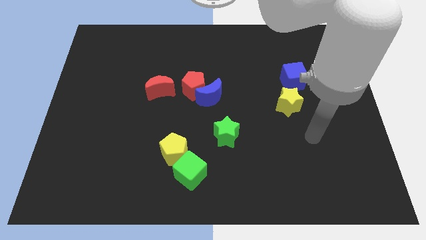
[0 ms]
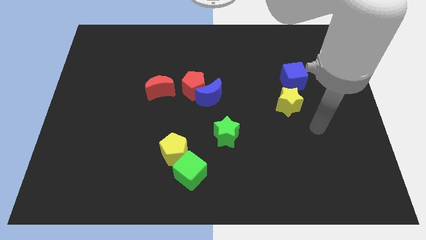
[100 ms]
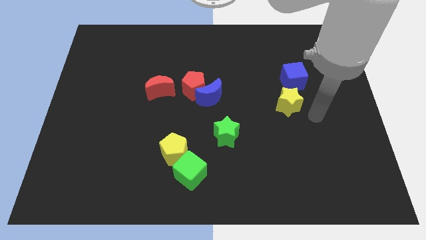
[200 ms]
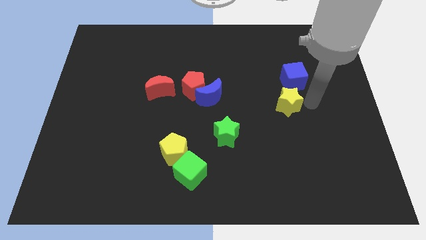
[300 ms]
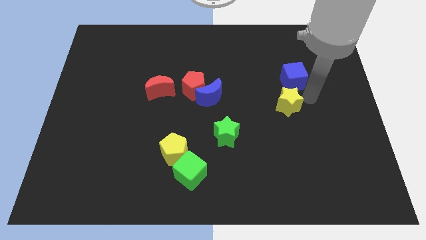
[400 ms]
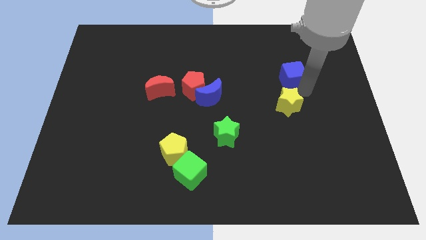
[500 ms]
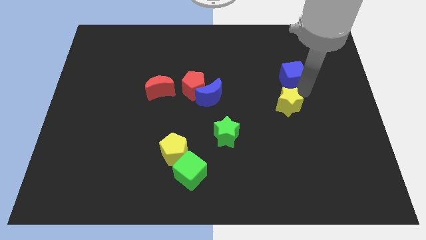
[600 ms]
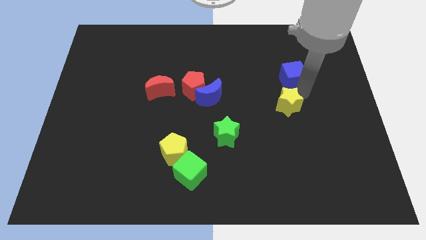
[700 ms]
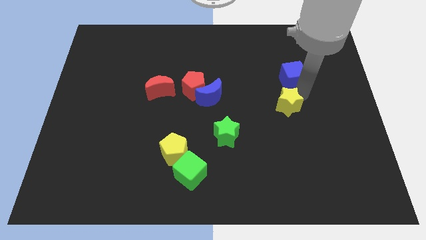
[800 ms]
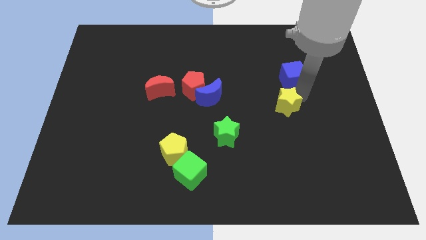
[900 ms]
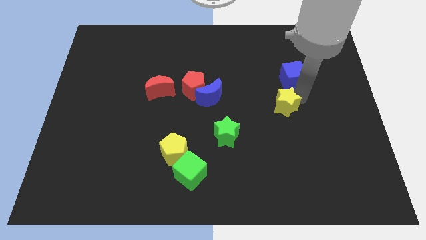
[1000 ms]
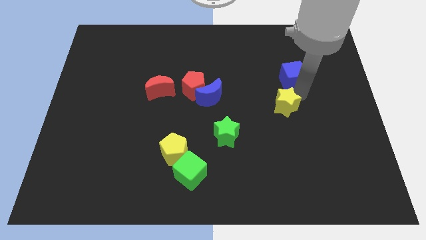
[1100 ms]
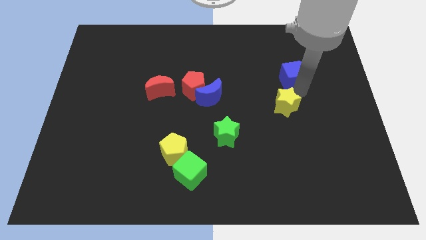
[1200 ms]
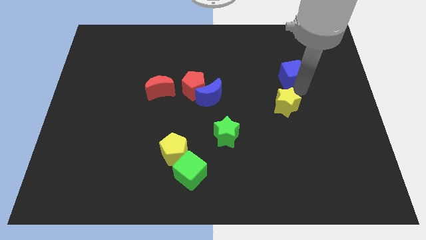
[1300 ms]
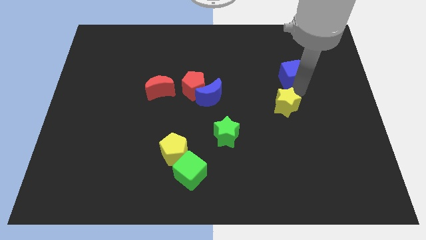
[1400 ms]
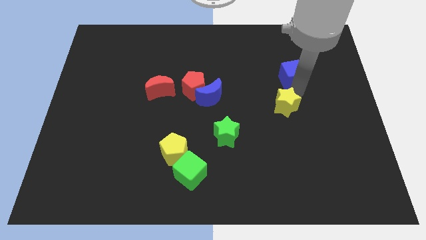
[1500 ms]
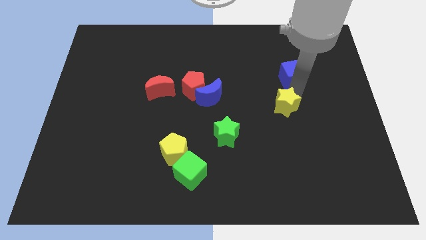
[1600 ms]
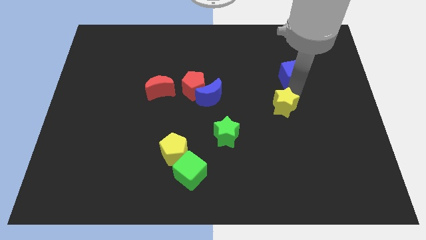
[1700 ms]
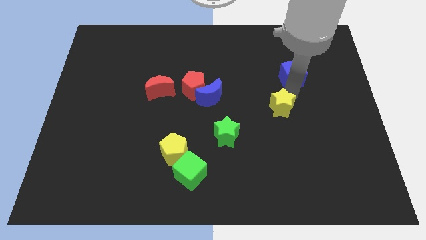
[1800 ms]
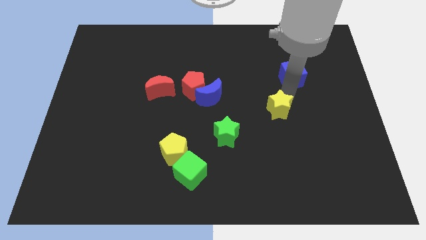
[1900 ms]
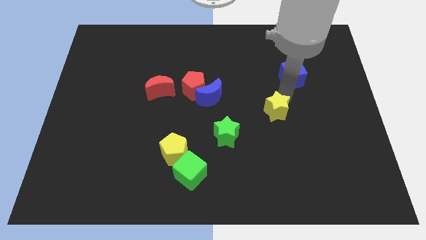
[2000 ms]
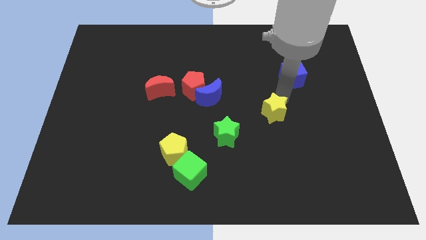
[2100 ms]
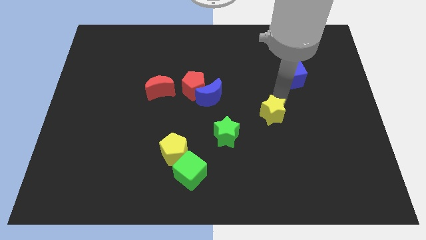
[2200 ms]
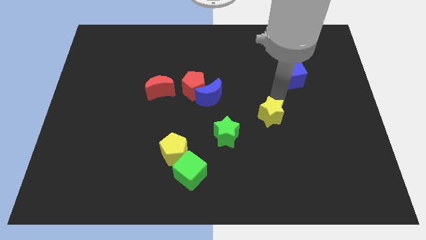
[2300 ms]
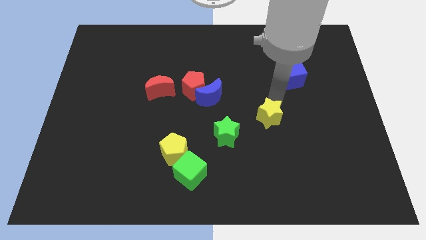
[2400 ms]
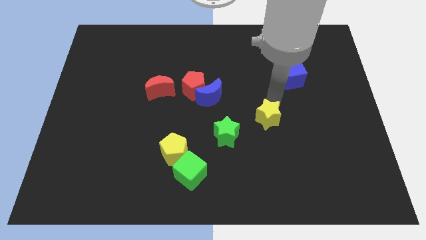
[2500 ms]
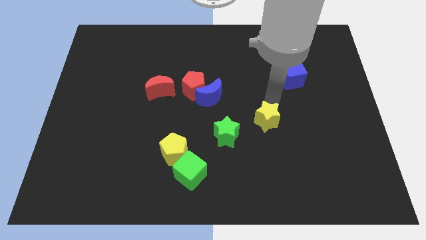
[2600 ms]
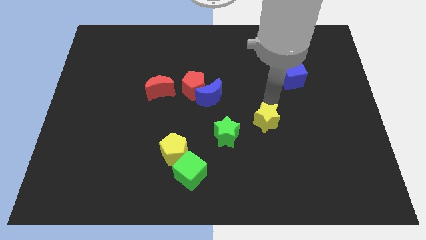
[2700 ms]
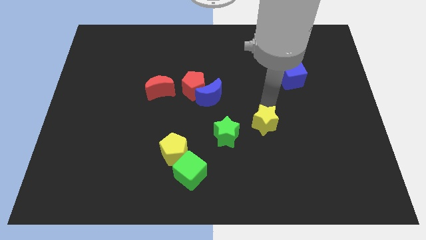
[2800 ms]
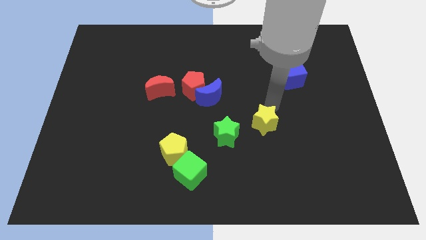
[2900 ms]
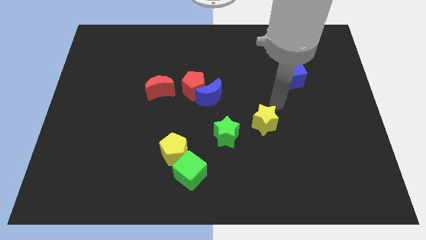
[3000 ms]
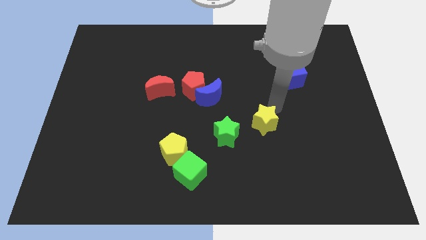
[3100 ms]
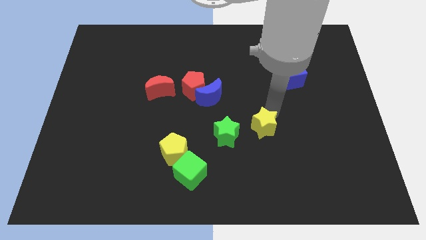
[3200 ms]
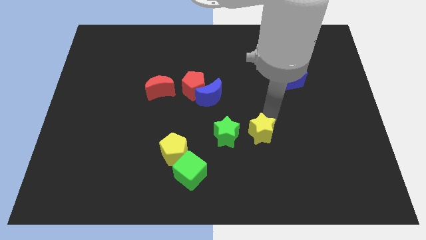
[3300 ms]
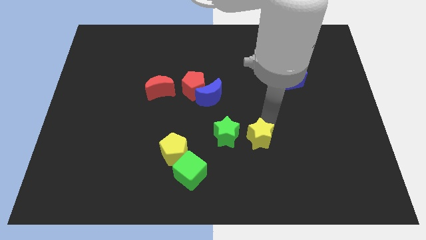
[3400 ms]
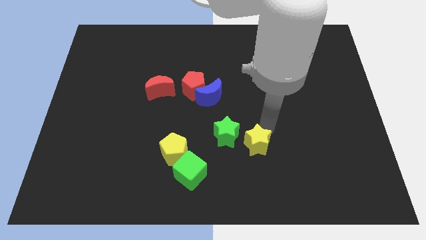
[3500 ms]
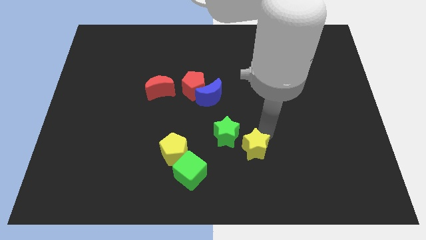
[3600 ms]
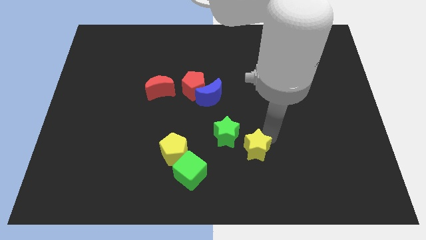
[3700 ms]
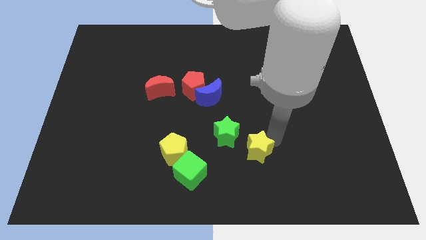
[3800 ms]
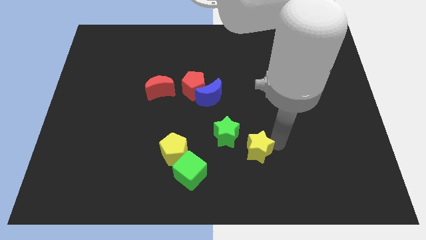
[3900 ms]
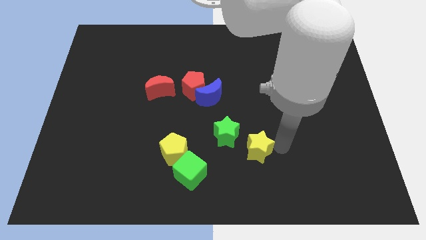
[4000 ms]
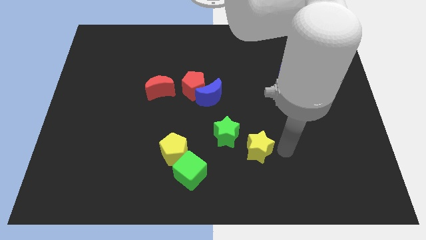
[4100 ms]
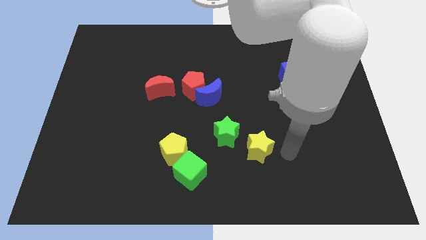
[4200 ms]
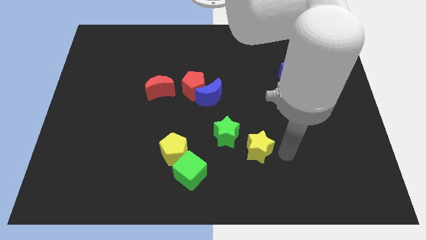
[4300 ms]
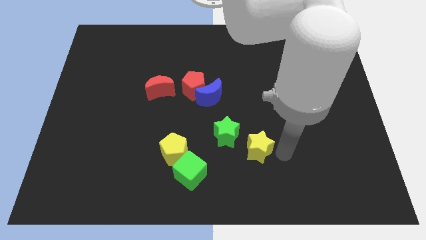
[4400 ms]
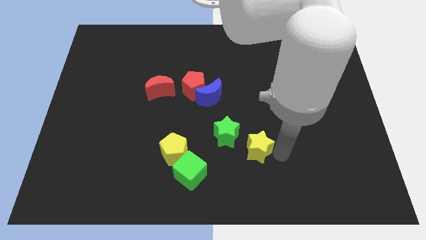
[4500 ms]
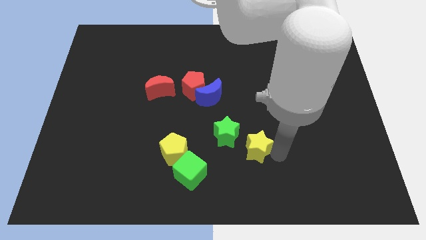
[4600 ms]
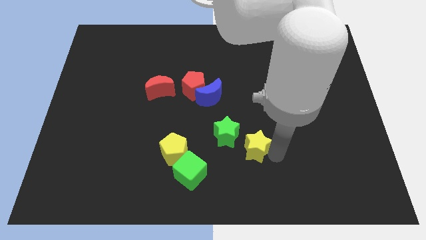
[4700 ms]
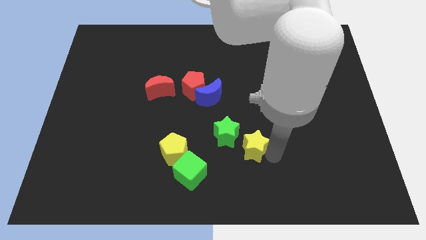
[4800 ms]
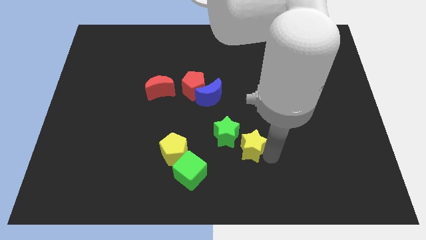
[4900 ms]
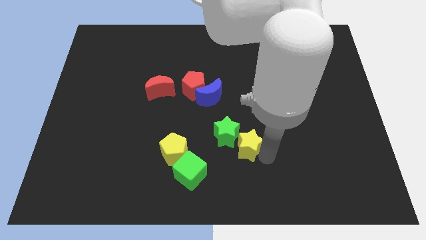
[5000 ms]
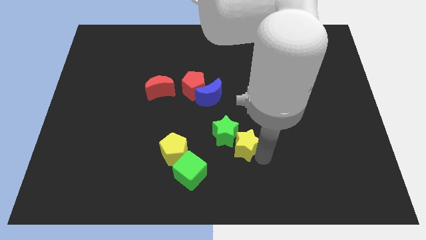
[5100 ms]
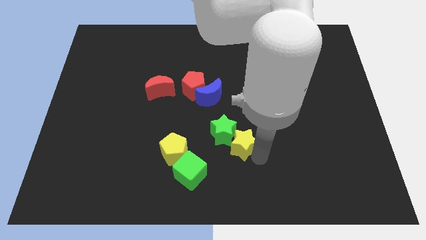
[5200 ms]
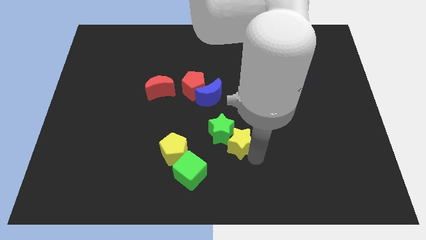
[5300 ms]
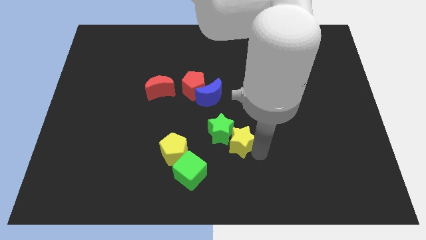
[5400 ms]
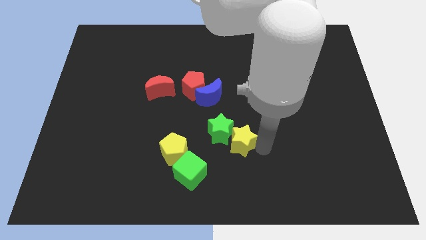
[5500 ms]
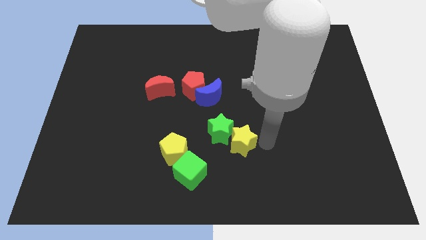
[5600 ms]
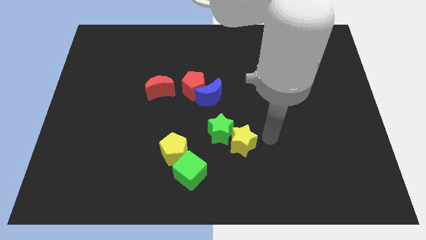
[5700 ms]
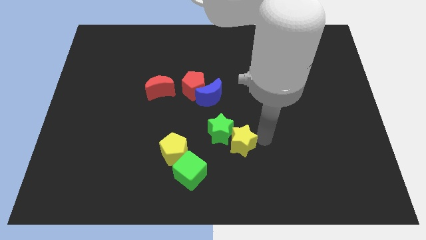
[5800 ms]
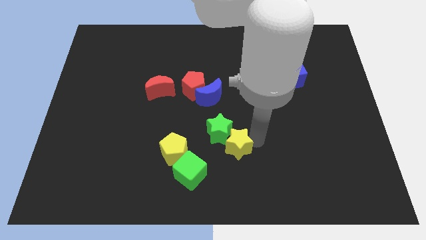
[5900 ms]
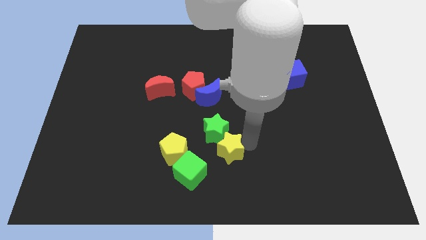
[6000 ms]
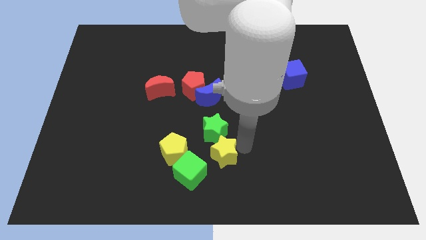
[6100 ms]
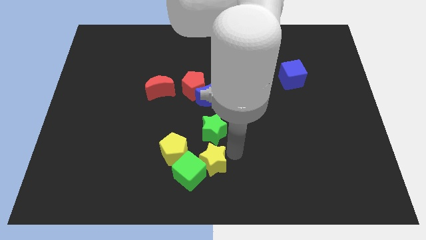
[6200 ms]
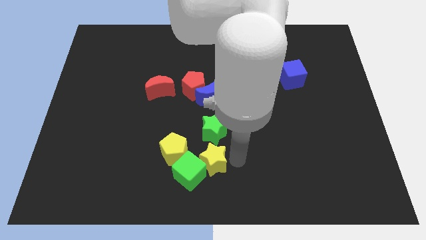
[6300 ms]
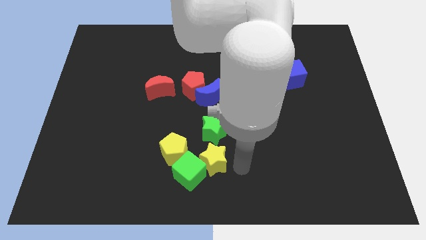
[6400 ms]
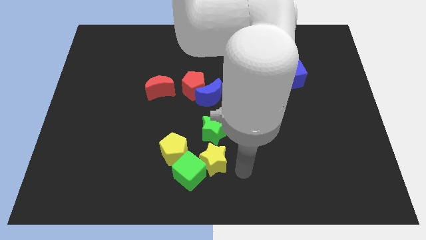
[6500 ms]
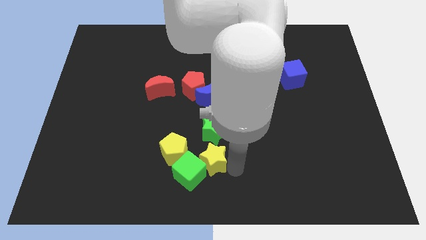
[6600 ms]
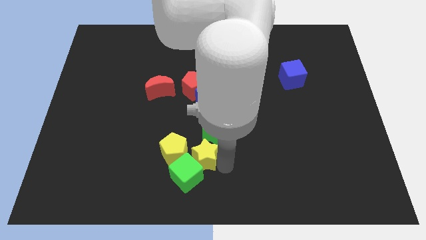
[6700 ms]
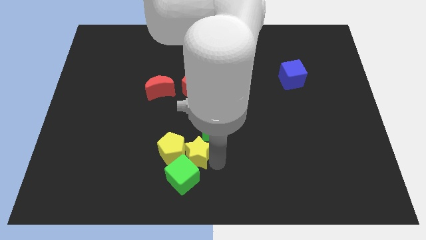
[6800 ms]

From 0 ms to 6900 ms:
push the yellow star close to the yellow pentagon
